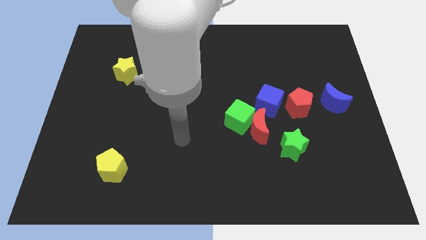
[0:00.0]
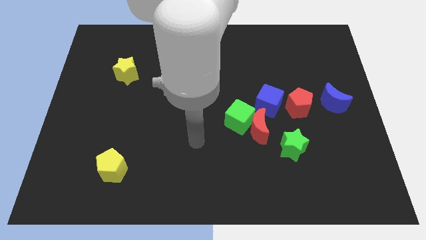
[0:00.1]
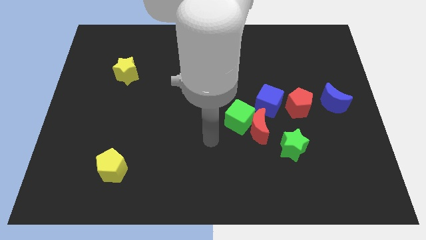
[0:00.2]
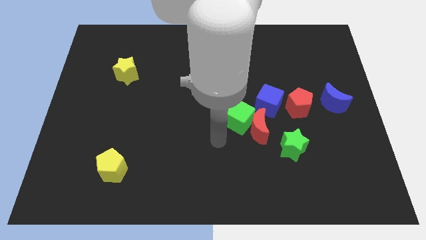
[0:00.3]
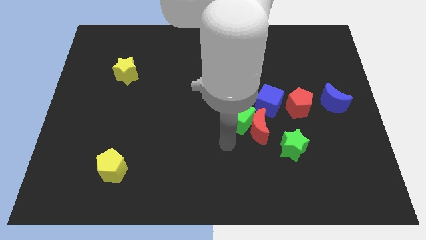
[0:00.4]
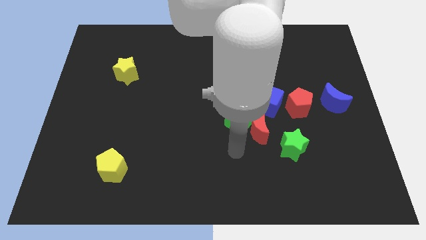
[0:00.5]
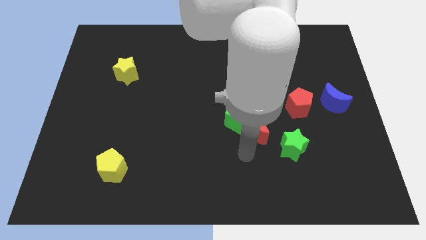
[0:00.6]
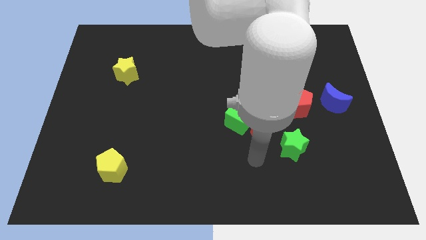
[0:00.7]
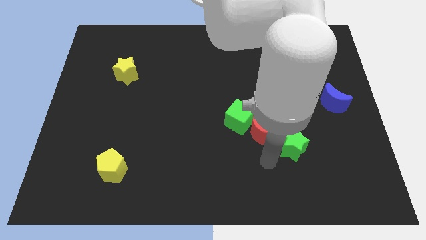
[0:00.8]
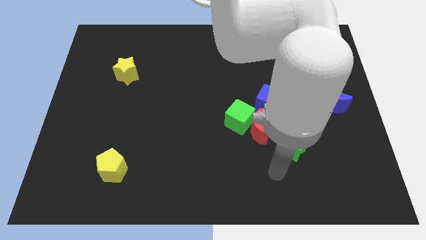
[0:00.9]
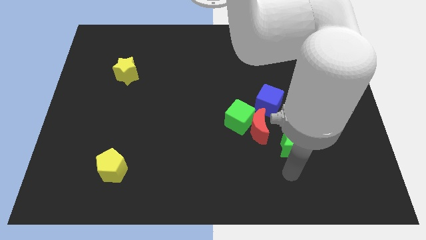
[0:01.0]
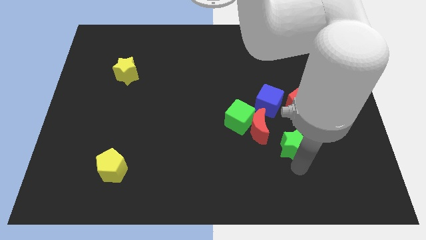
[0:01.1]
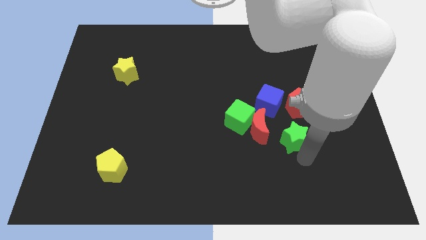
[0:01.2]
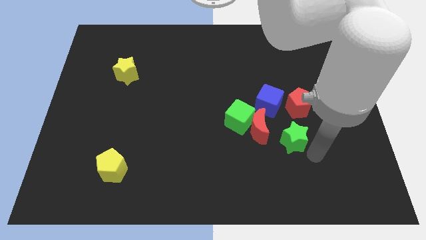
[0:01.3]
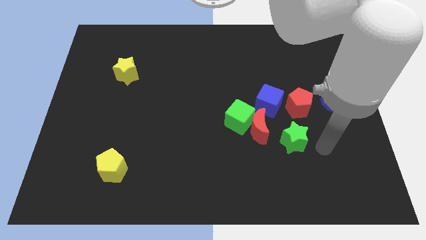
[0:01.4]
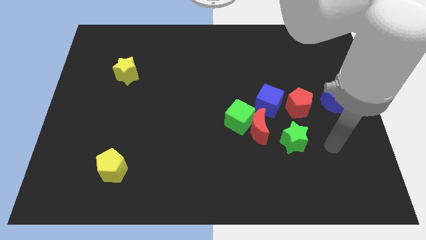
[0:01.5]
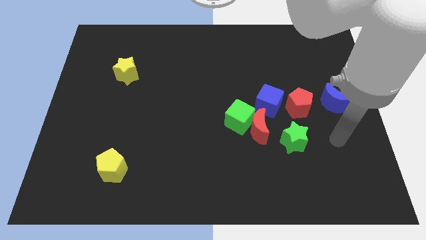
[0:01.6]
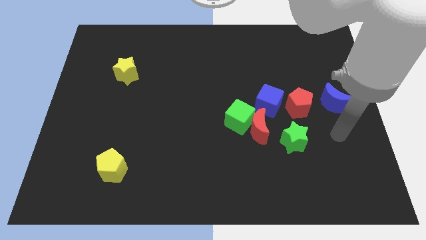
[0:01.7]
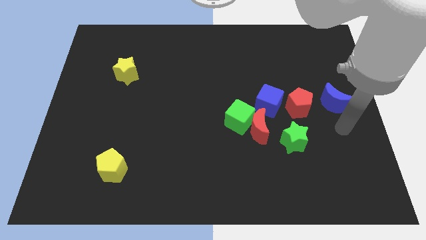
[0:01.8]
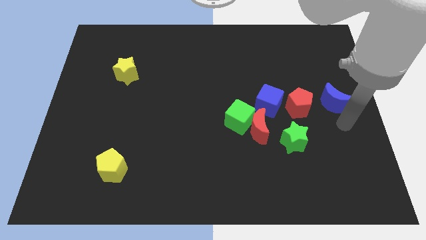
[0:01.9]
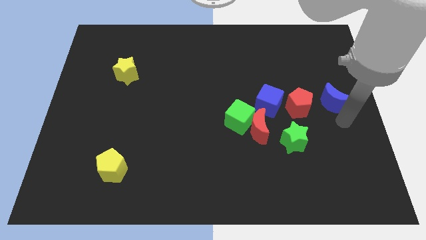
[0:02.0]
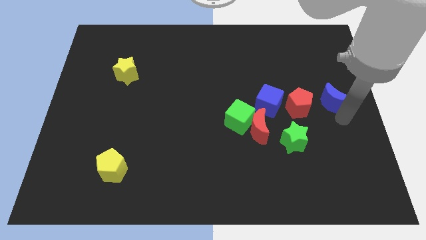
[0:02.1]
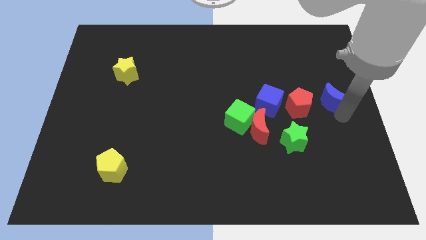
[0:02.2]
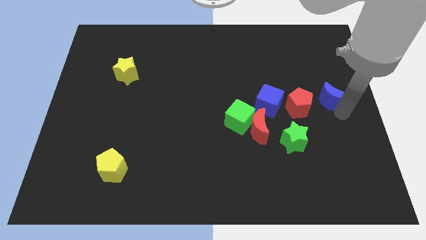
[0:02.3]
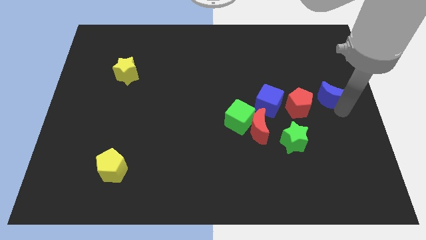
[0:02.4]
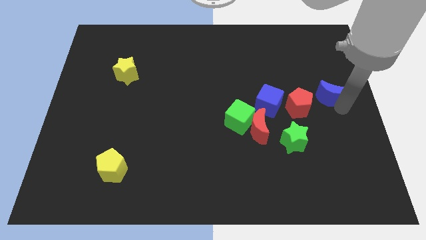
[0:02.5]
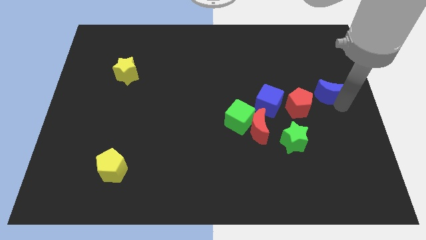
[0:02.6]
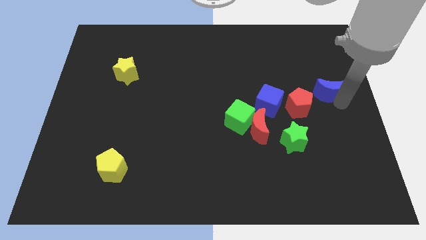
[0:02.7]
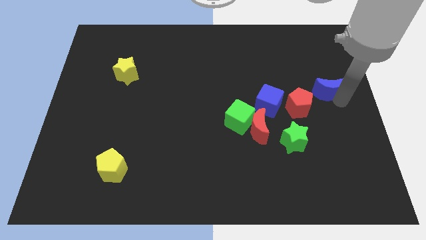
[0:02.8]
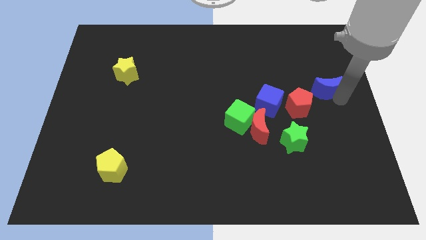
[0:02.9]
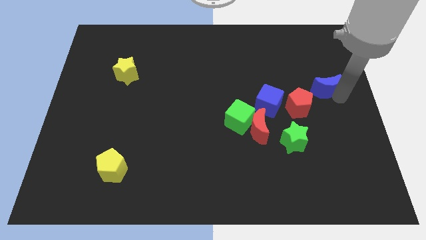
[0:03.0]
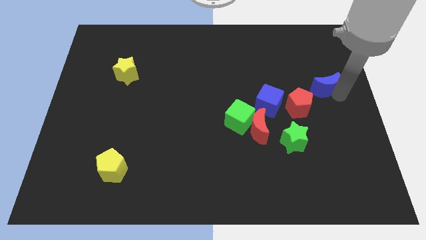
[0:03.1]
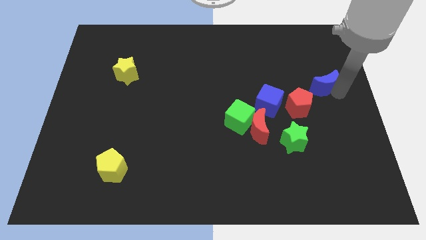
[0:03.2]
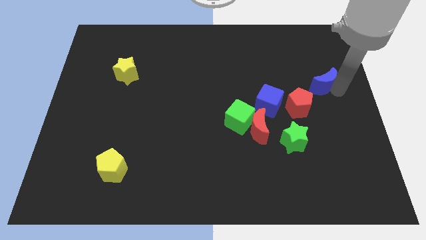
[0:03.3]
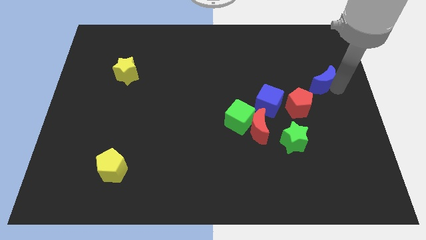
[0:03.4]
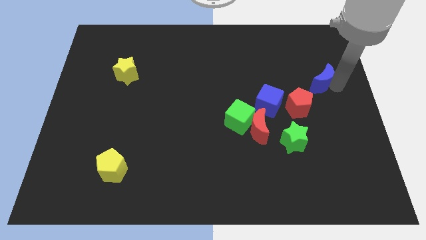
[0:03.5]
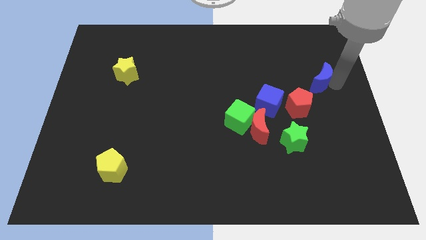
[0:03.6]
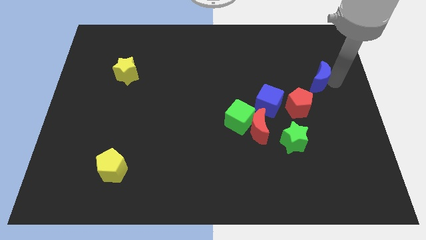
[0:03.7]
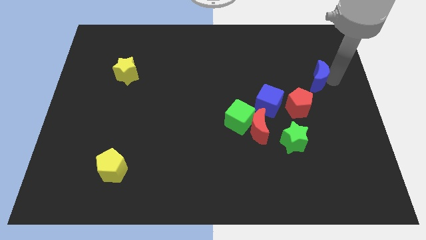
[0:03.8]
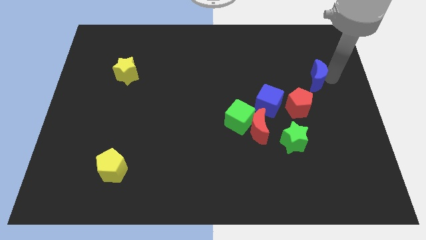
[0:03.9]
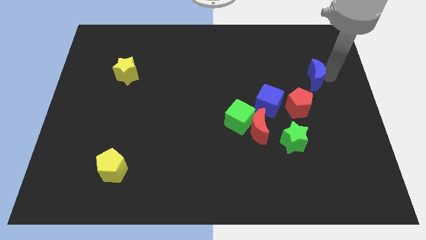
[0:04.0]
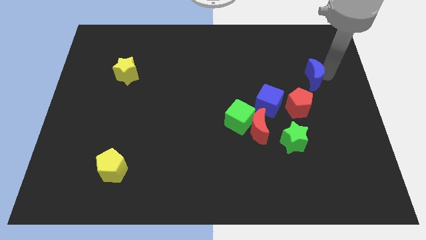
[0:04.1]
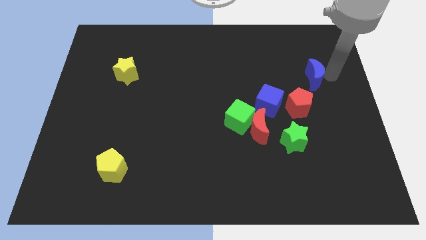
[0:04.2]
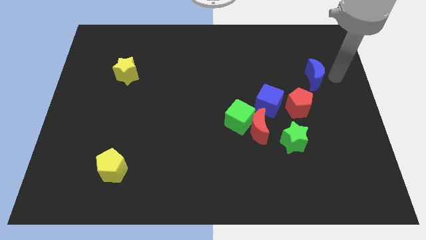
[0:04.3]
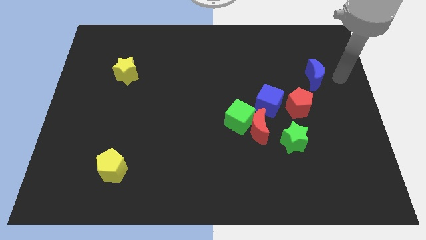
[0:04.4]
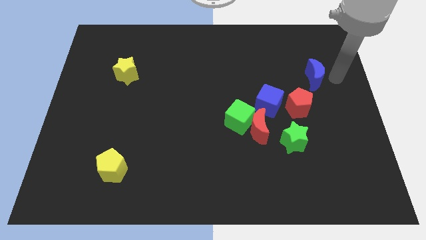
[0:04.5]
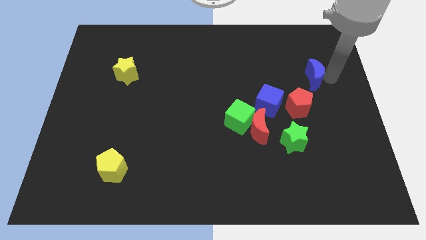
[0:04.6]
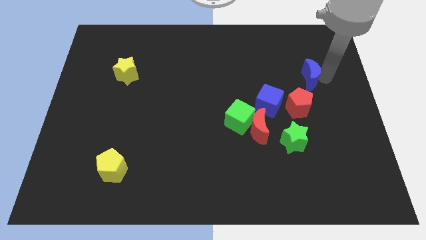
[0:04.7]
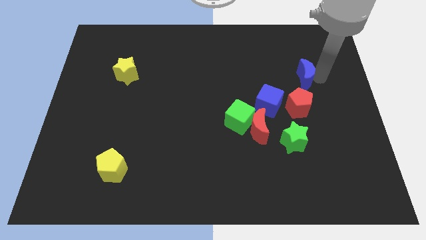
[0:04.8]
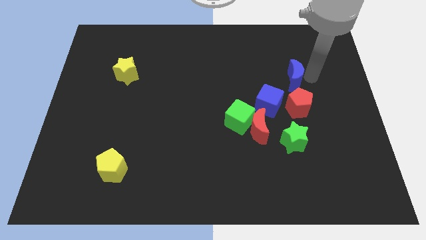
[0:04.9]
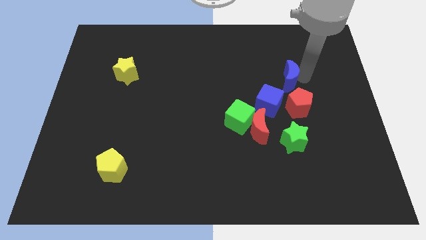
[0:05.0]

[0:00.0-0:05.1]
slightly move the blue moon left

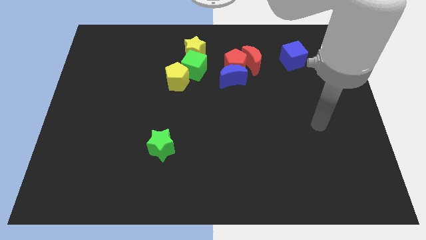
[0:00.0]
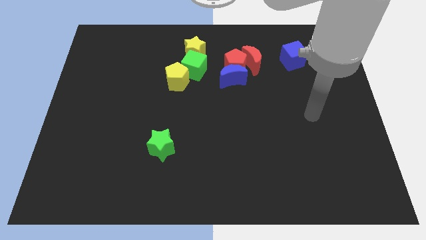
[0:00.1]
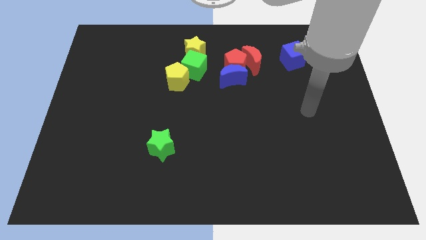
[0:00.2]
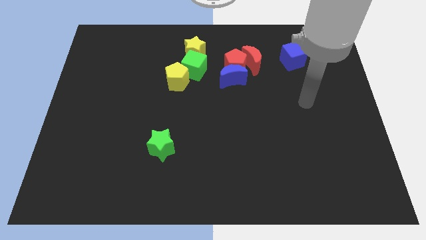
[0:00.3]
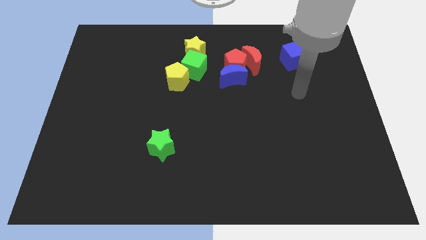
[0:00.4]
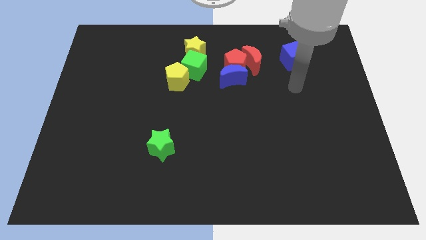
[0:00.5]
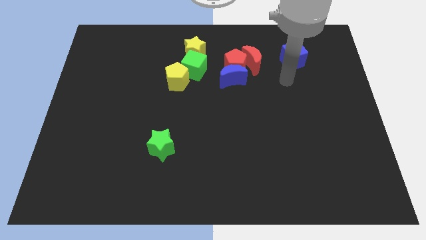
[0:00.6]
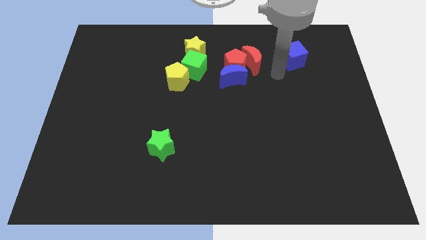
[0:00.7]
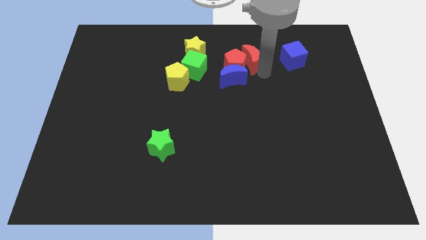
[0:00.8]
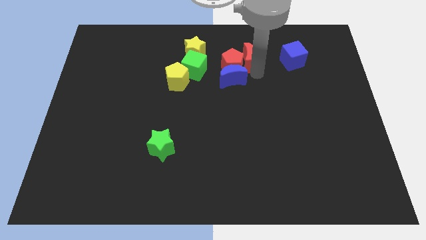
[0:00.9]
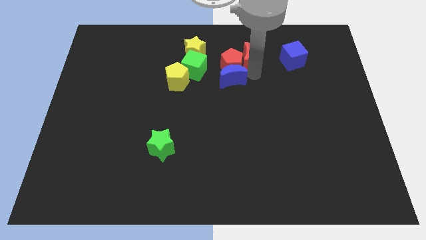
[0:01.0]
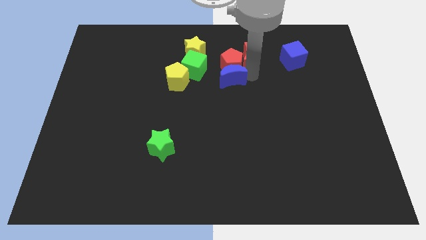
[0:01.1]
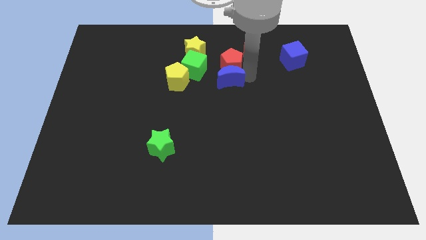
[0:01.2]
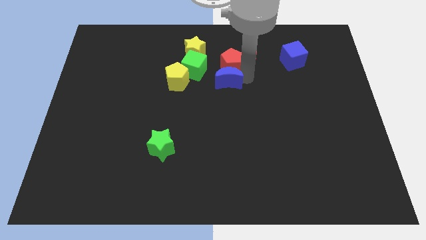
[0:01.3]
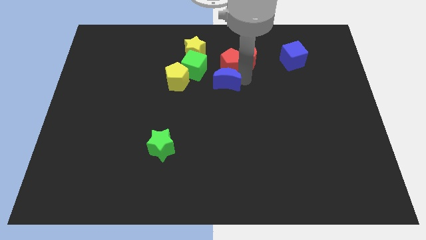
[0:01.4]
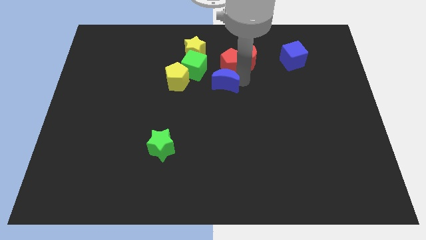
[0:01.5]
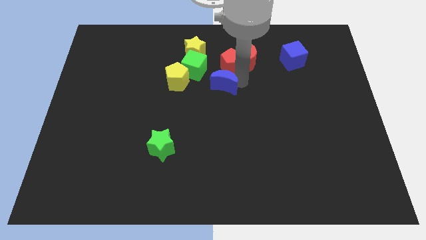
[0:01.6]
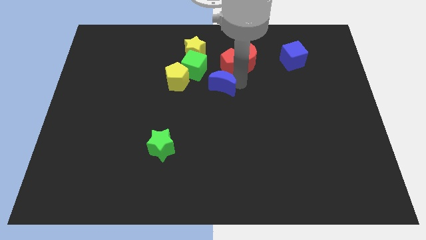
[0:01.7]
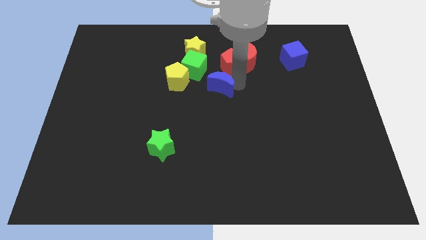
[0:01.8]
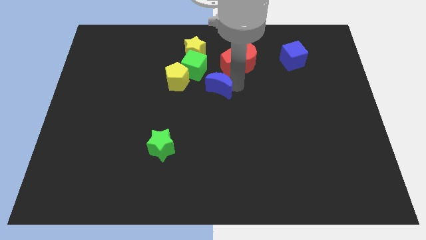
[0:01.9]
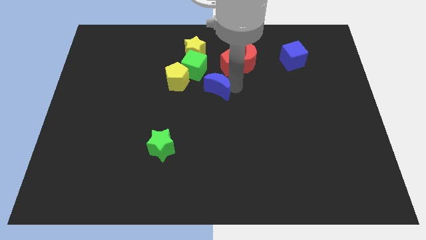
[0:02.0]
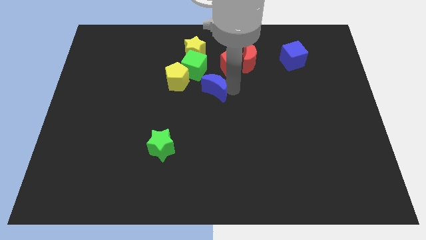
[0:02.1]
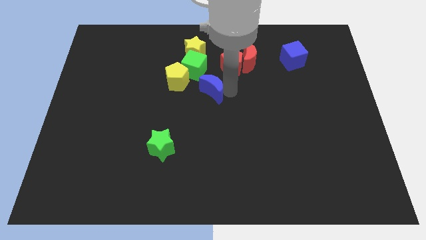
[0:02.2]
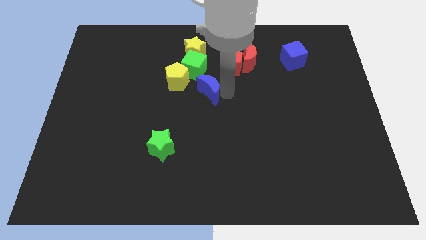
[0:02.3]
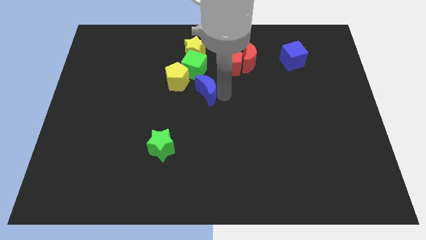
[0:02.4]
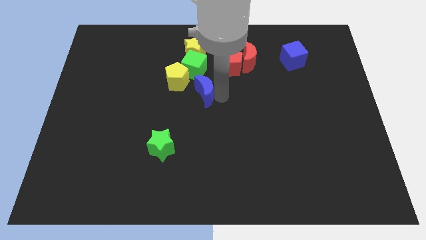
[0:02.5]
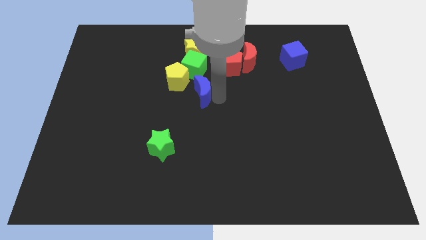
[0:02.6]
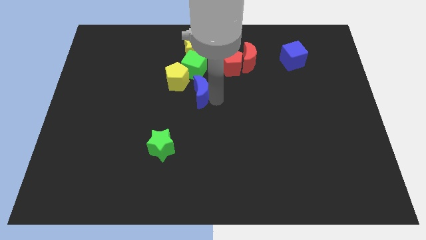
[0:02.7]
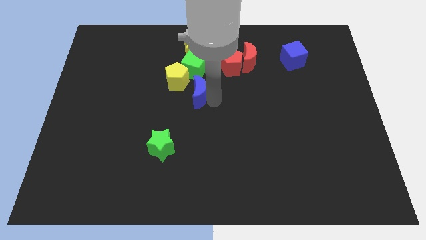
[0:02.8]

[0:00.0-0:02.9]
push the blue moon left a little bit

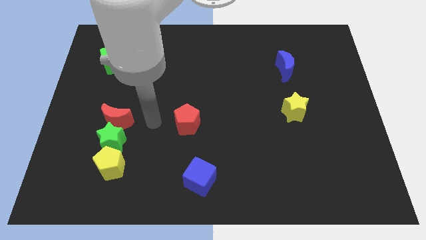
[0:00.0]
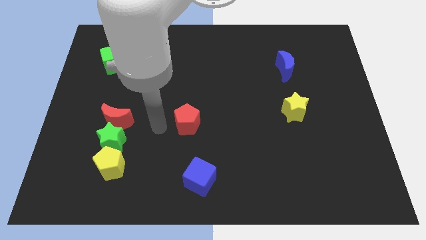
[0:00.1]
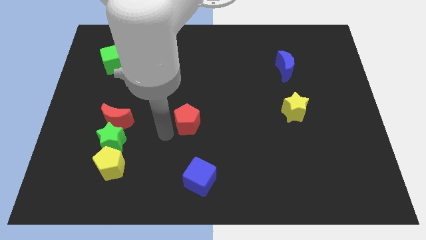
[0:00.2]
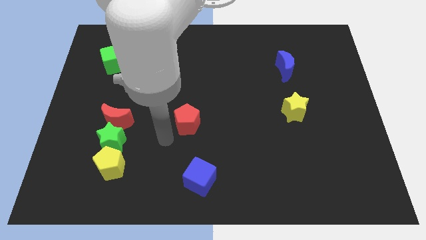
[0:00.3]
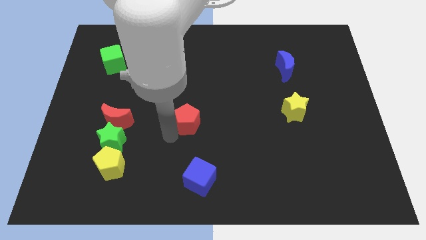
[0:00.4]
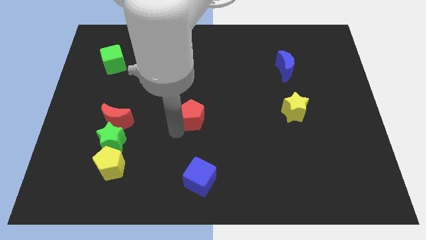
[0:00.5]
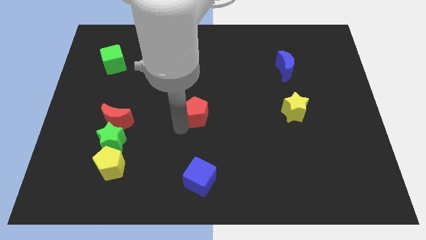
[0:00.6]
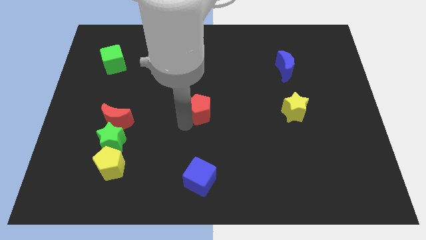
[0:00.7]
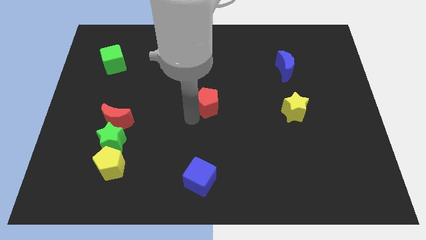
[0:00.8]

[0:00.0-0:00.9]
slide the red pentagon upwards and then right somewhat
